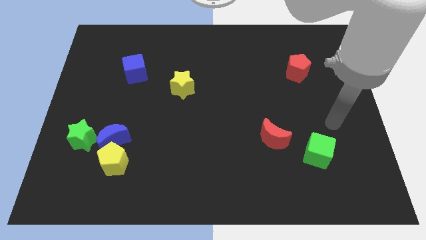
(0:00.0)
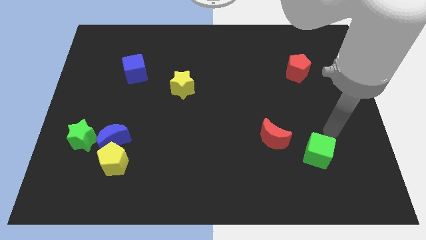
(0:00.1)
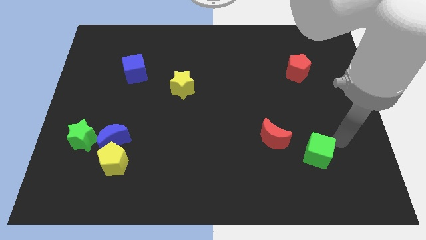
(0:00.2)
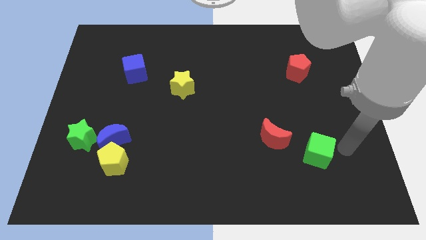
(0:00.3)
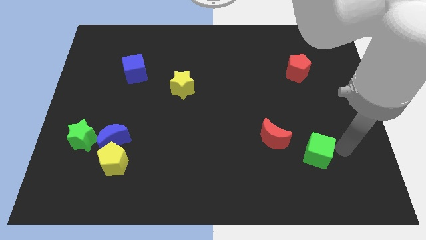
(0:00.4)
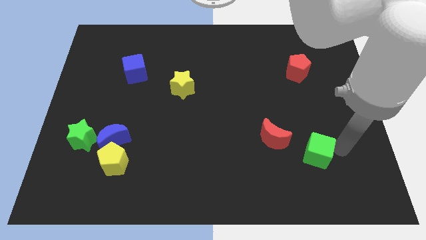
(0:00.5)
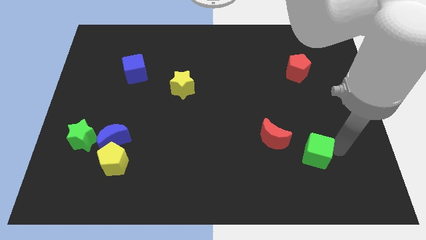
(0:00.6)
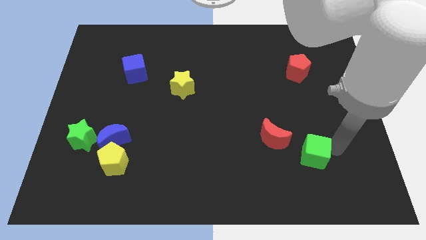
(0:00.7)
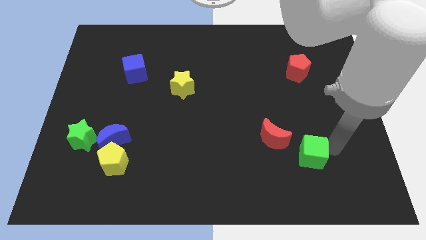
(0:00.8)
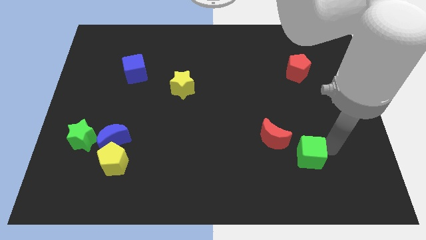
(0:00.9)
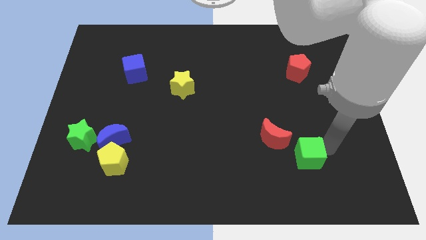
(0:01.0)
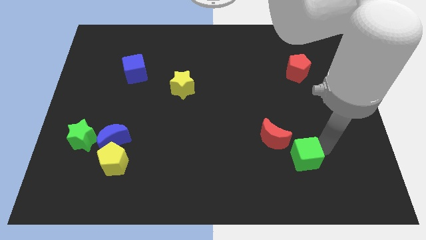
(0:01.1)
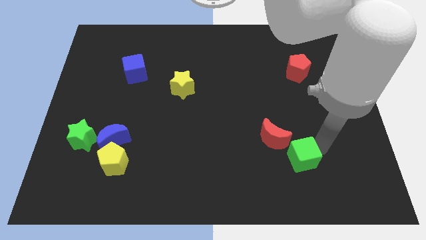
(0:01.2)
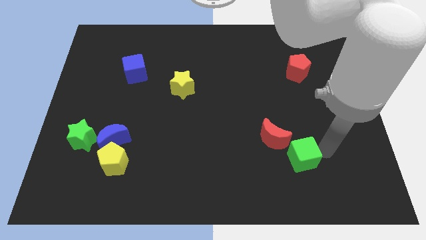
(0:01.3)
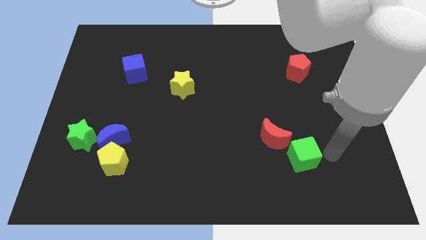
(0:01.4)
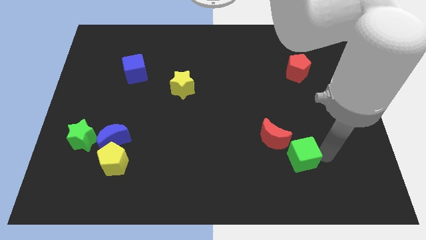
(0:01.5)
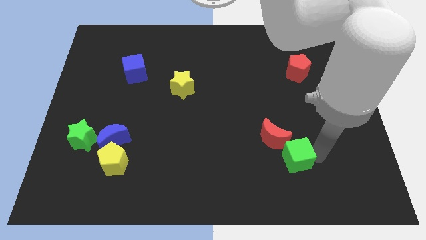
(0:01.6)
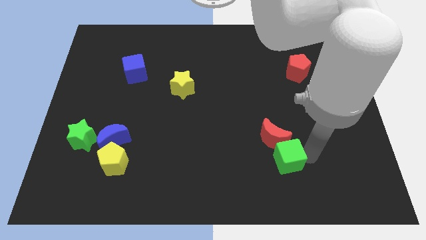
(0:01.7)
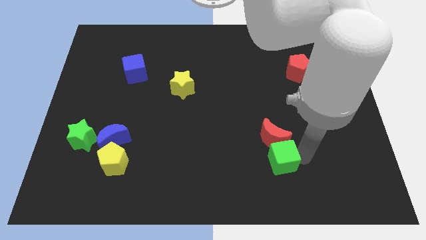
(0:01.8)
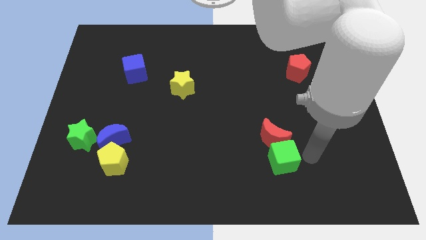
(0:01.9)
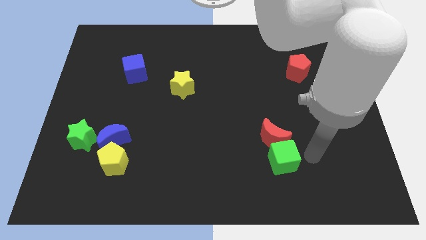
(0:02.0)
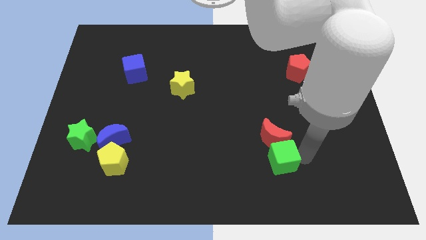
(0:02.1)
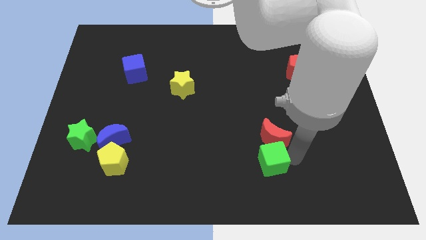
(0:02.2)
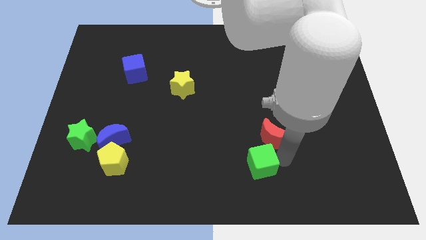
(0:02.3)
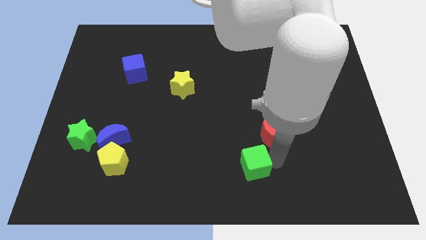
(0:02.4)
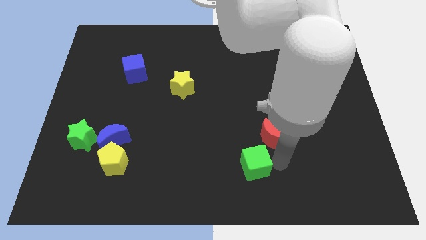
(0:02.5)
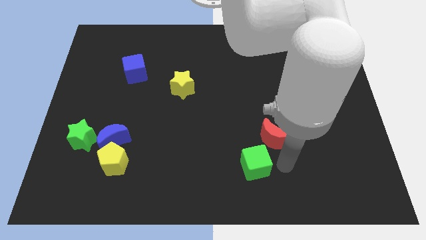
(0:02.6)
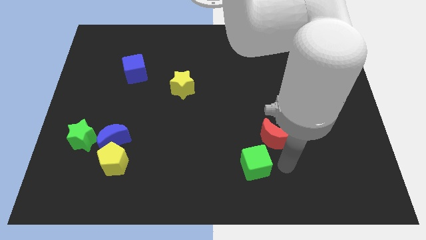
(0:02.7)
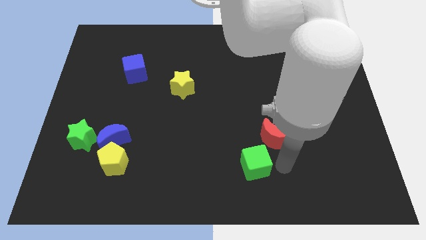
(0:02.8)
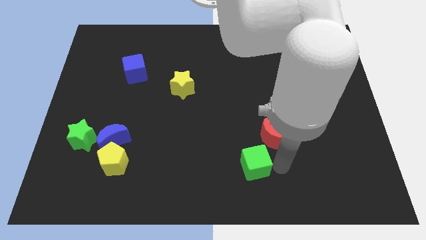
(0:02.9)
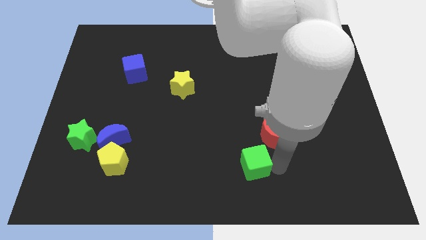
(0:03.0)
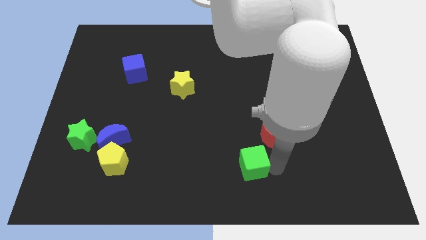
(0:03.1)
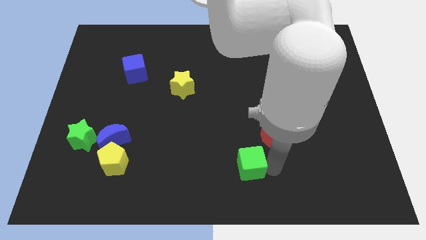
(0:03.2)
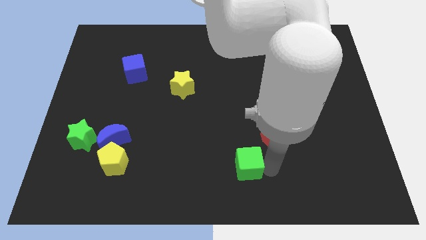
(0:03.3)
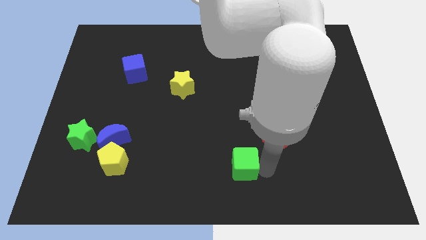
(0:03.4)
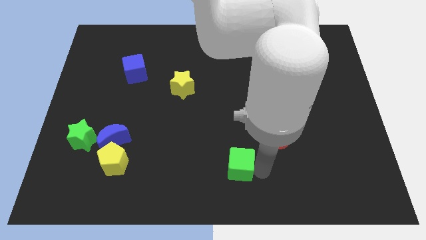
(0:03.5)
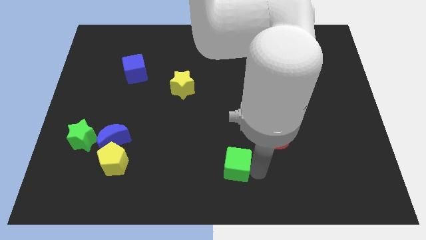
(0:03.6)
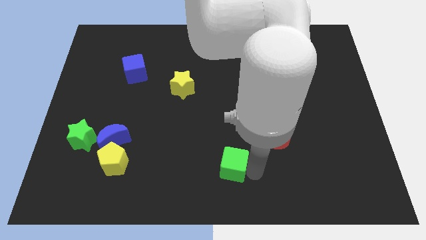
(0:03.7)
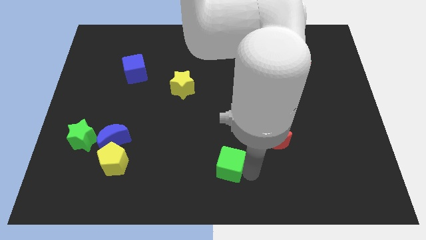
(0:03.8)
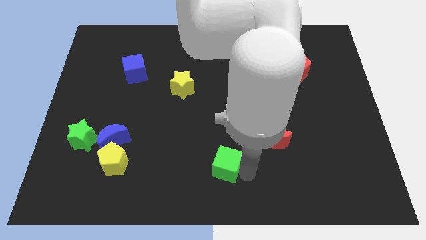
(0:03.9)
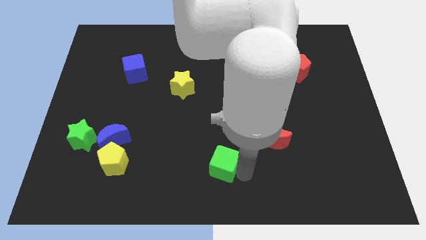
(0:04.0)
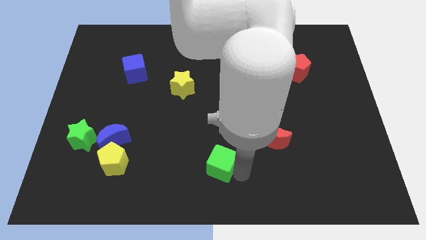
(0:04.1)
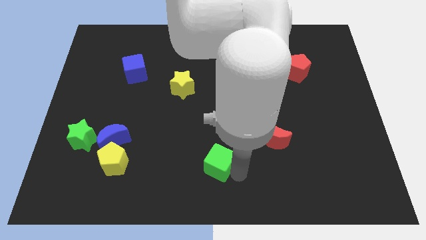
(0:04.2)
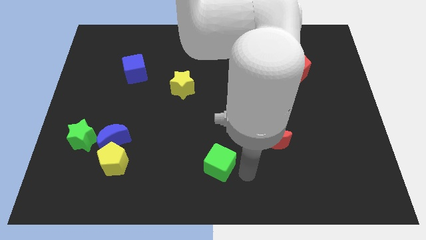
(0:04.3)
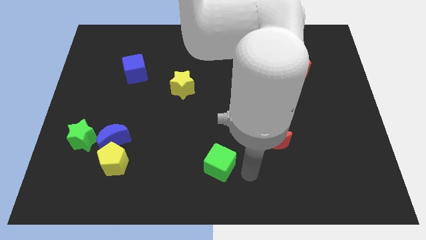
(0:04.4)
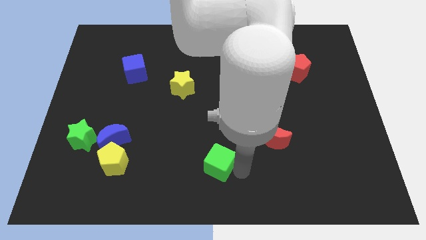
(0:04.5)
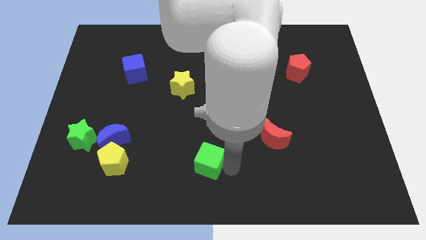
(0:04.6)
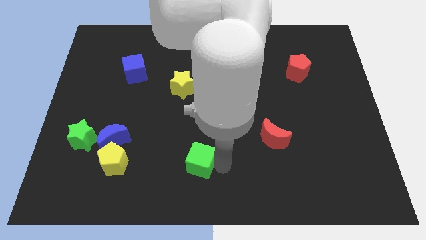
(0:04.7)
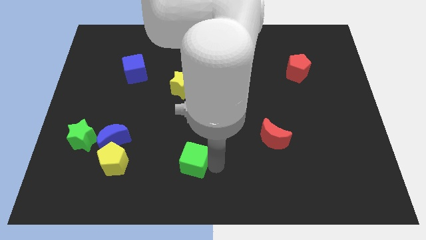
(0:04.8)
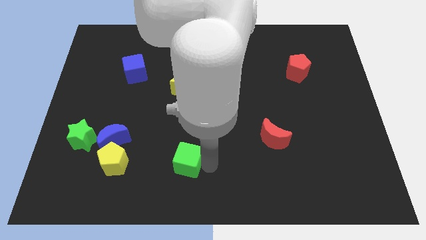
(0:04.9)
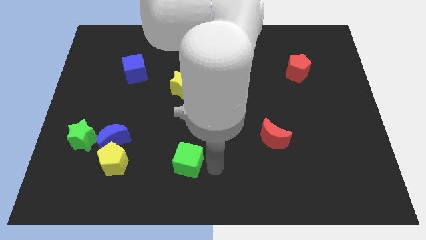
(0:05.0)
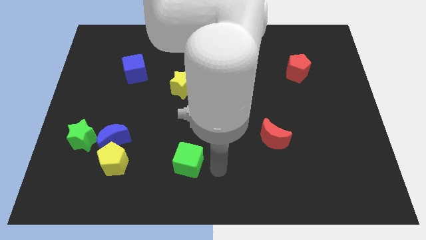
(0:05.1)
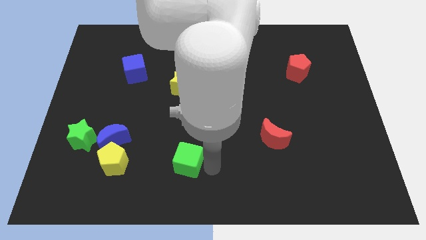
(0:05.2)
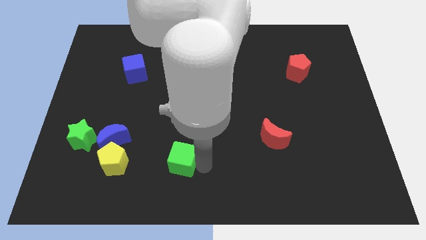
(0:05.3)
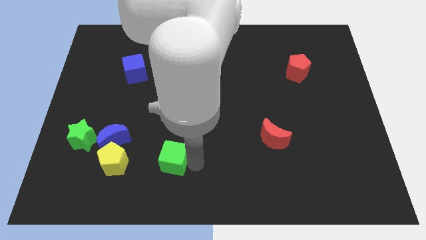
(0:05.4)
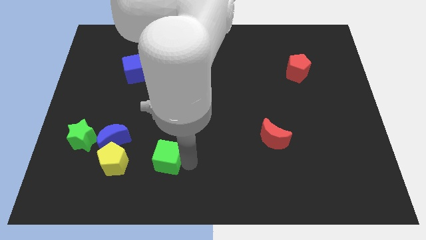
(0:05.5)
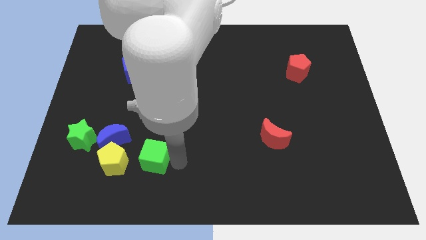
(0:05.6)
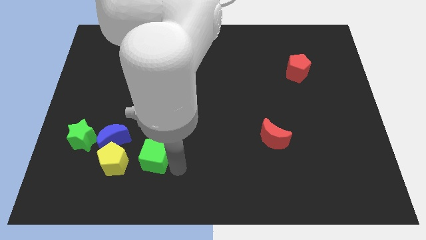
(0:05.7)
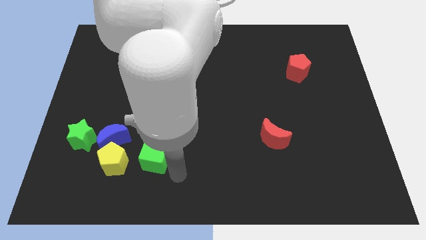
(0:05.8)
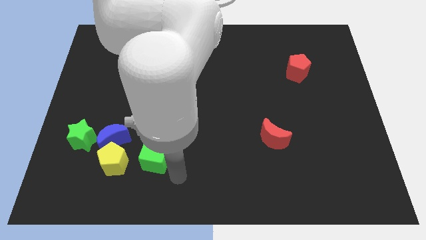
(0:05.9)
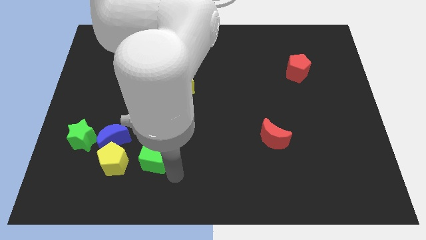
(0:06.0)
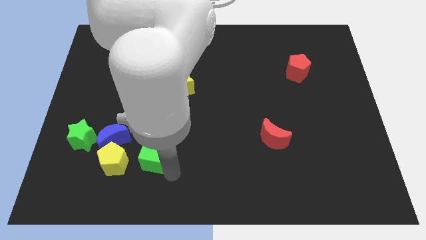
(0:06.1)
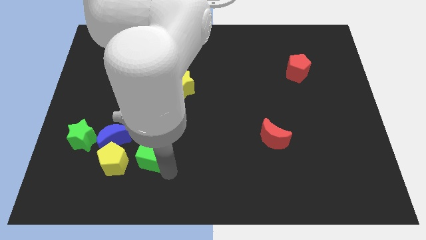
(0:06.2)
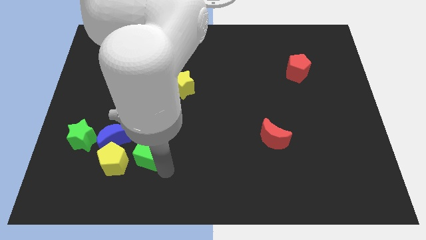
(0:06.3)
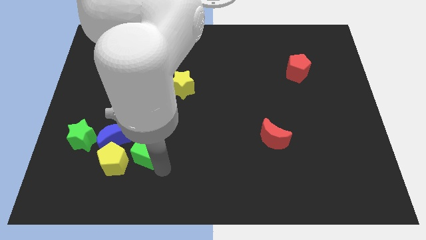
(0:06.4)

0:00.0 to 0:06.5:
move the green cube just right of the green star

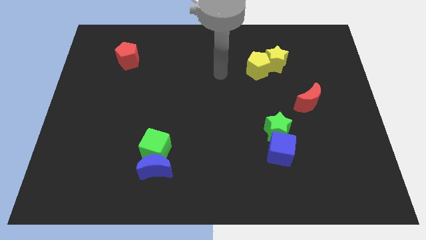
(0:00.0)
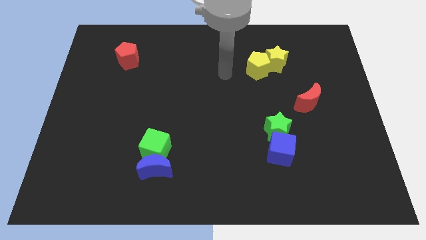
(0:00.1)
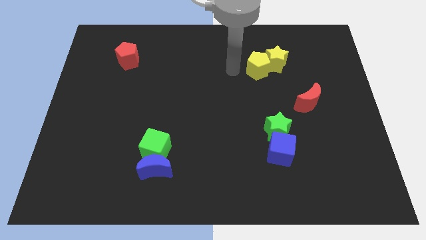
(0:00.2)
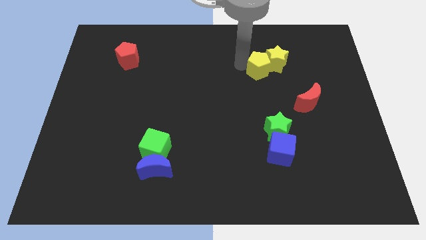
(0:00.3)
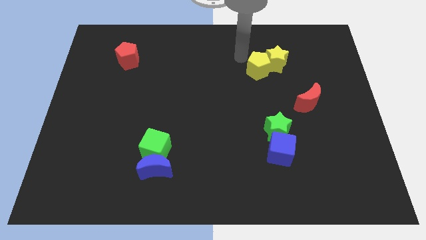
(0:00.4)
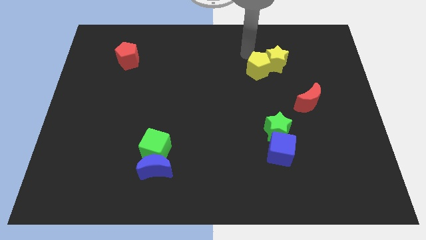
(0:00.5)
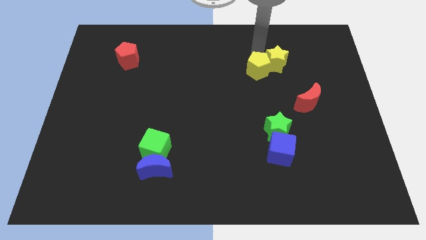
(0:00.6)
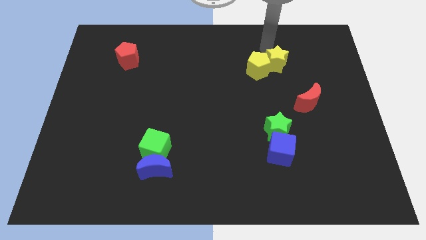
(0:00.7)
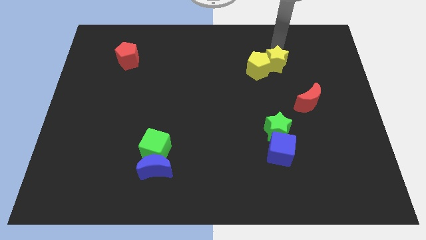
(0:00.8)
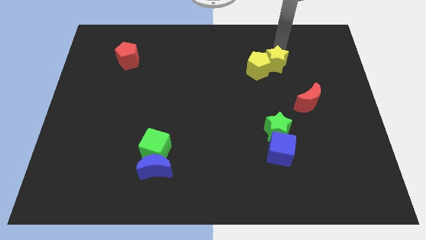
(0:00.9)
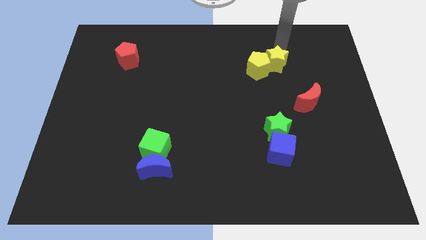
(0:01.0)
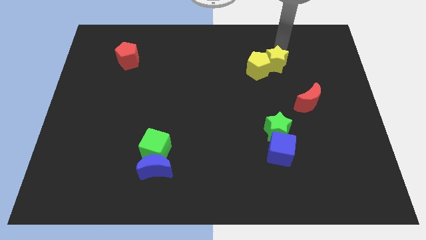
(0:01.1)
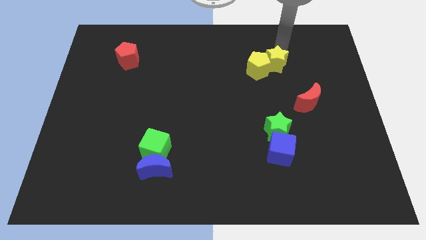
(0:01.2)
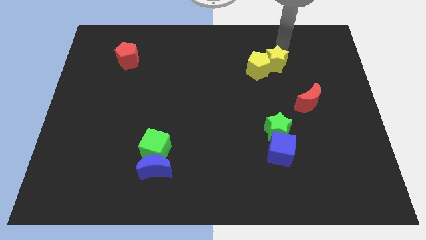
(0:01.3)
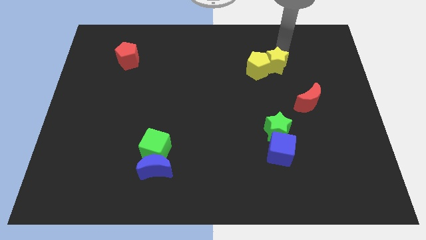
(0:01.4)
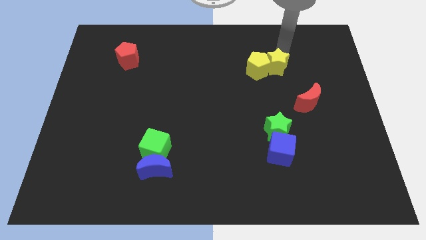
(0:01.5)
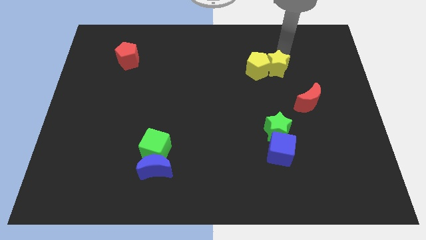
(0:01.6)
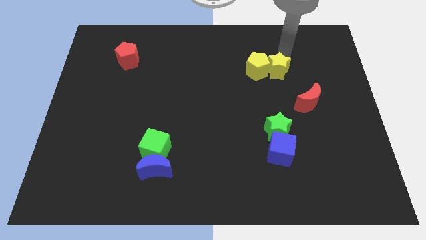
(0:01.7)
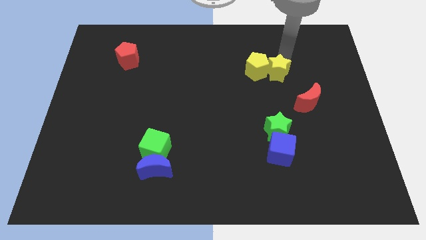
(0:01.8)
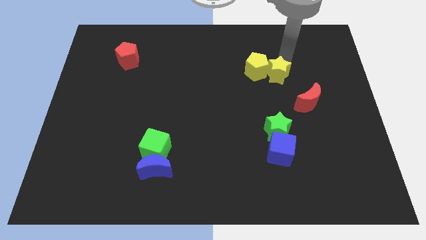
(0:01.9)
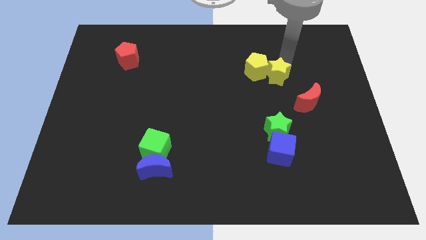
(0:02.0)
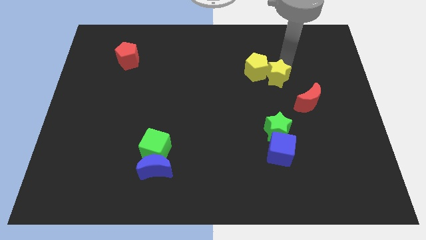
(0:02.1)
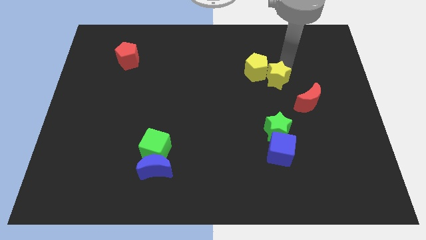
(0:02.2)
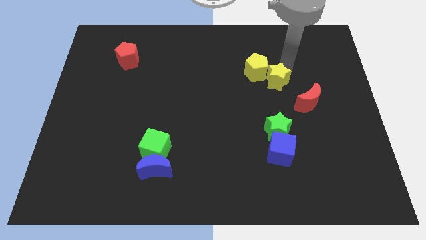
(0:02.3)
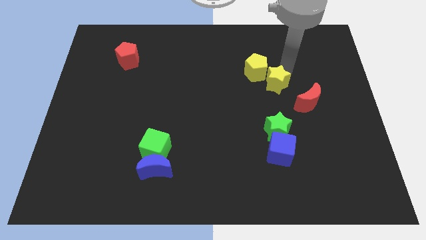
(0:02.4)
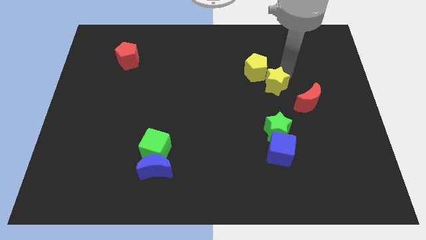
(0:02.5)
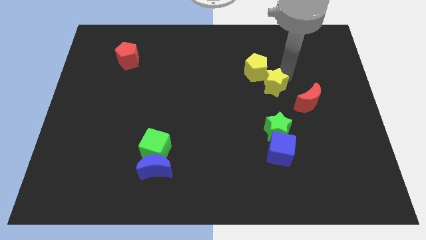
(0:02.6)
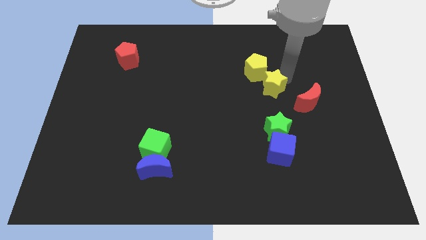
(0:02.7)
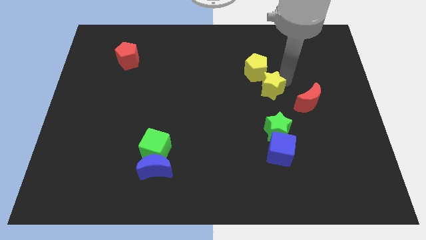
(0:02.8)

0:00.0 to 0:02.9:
move the yellow star to the left of the red moon
